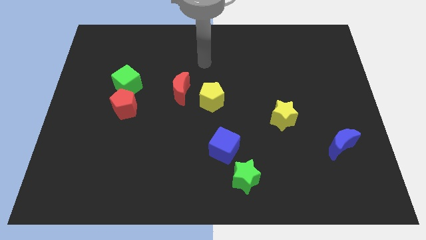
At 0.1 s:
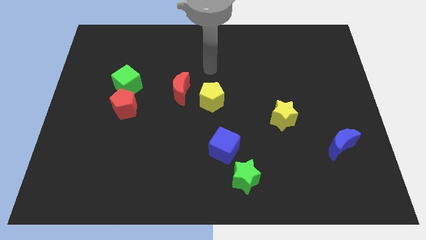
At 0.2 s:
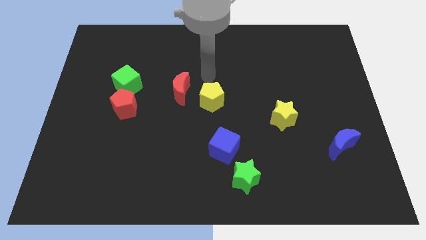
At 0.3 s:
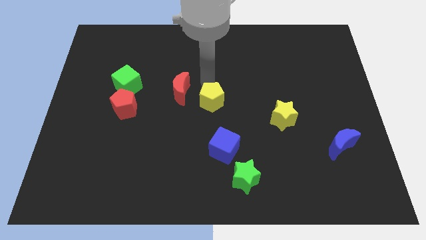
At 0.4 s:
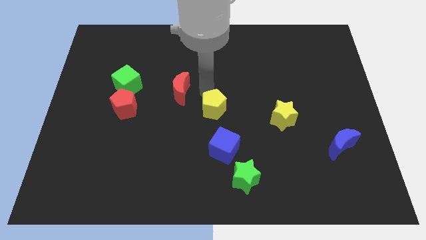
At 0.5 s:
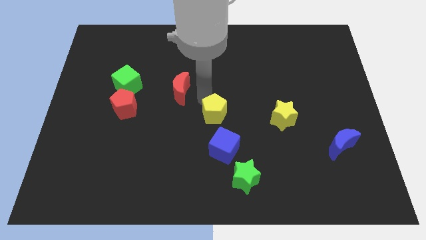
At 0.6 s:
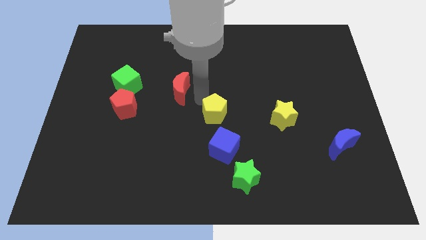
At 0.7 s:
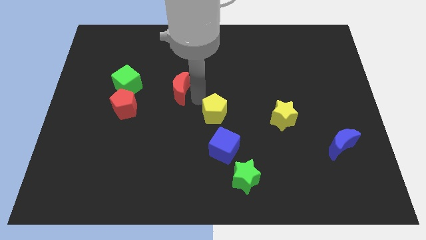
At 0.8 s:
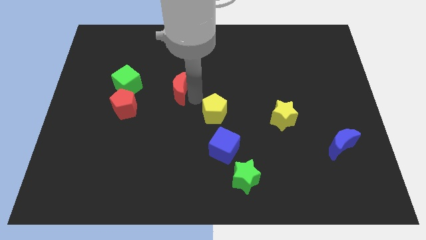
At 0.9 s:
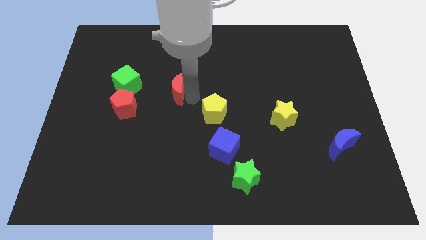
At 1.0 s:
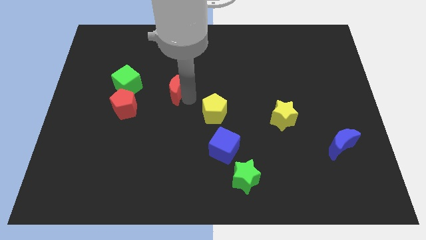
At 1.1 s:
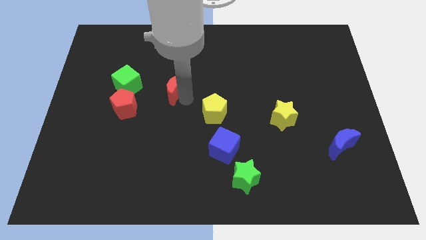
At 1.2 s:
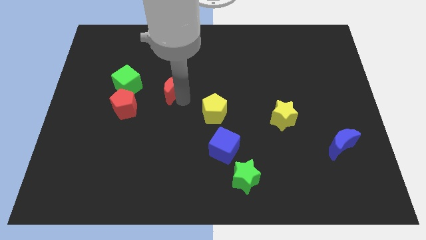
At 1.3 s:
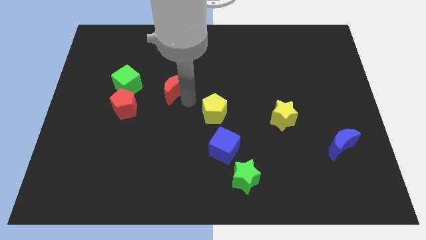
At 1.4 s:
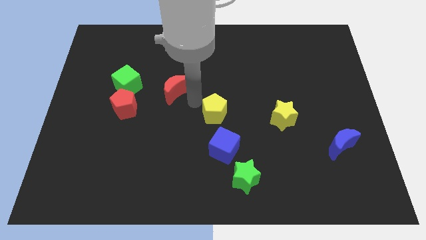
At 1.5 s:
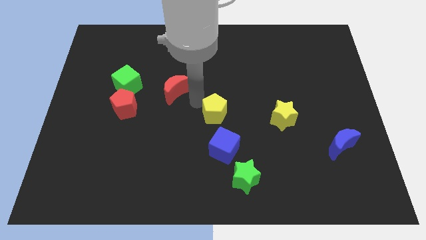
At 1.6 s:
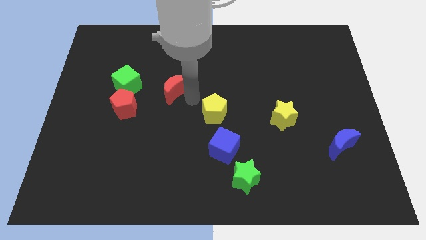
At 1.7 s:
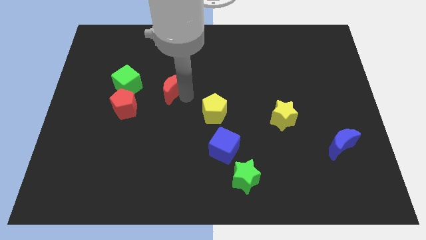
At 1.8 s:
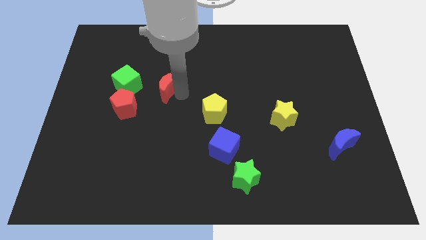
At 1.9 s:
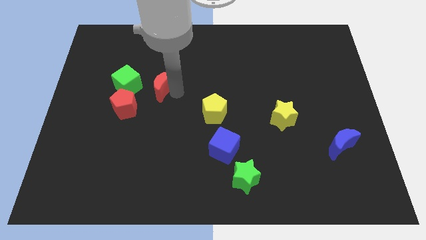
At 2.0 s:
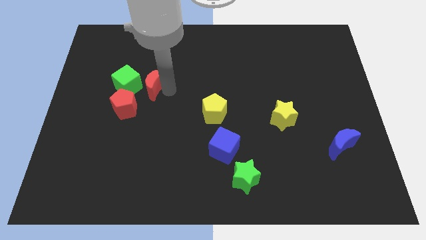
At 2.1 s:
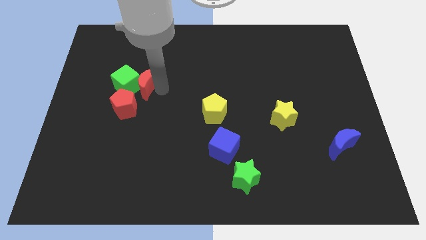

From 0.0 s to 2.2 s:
slightly push the red moon to the left

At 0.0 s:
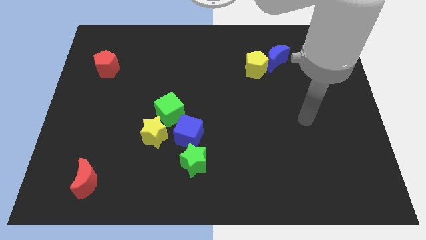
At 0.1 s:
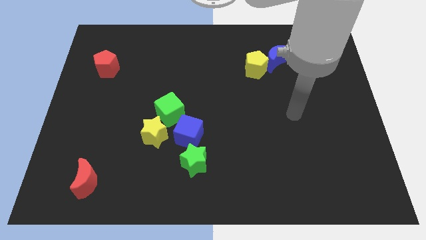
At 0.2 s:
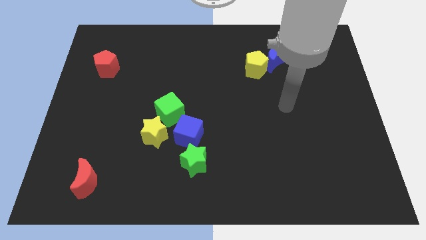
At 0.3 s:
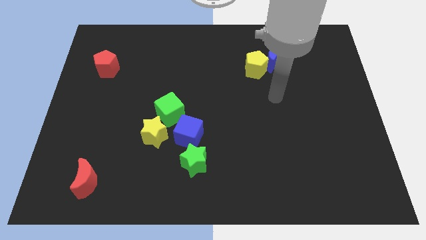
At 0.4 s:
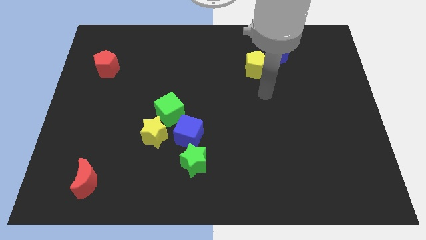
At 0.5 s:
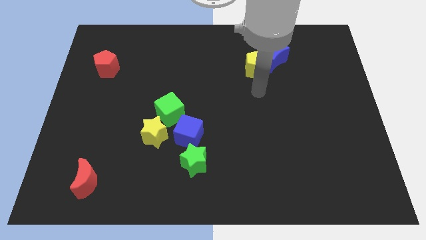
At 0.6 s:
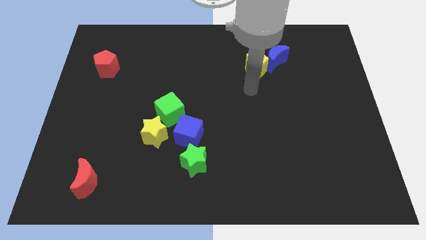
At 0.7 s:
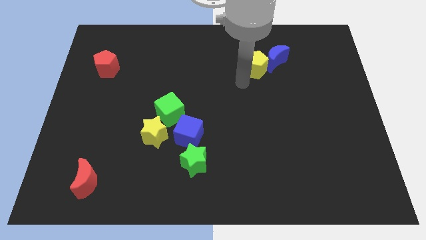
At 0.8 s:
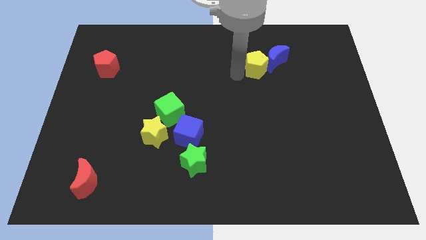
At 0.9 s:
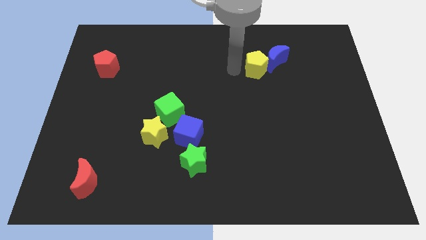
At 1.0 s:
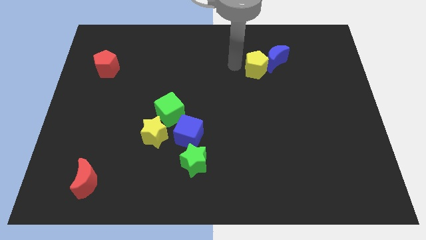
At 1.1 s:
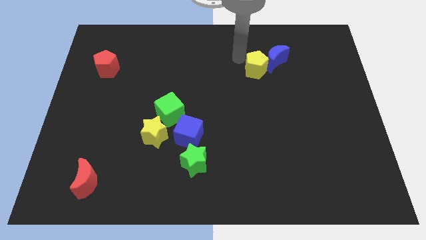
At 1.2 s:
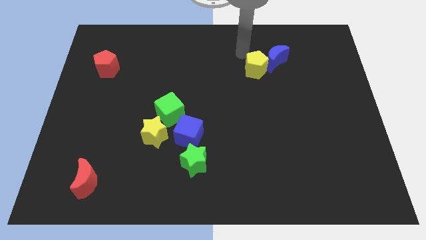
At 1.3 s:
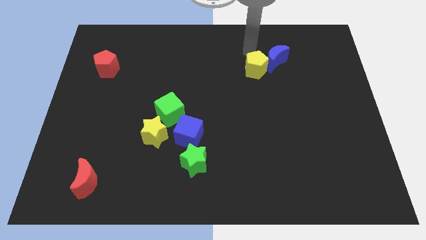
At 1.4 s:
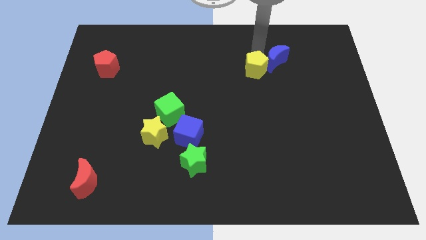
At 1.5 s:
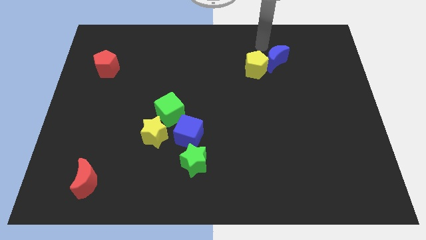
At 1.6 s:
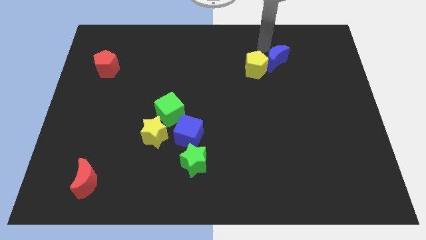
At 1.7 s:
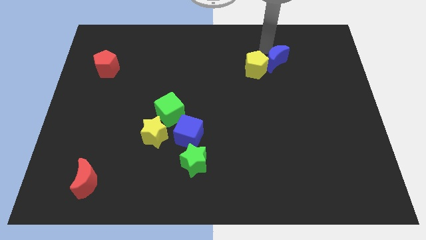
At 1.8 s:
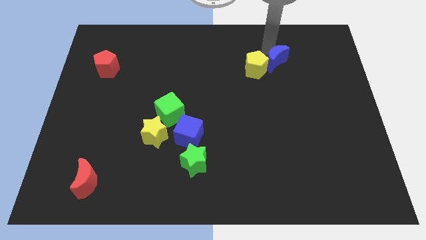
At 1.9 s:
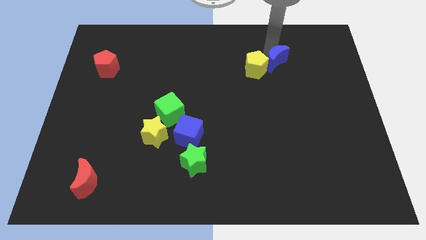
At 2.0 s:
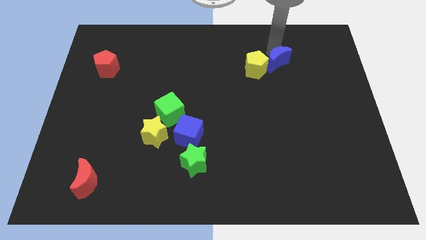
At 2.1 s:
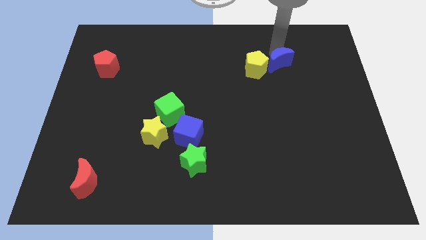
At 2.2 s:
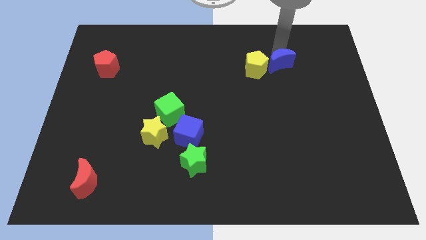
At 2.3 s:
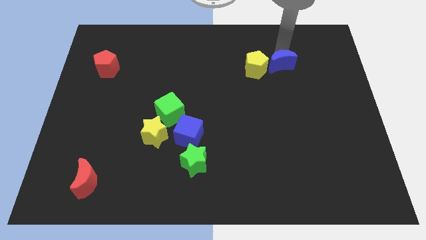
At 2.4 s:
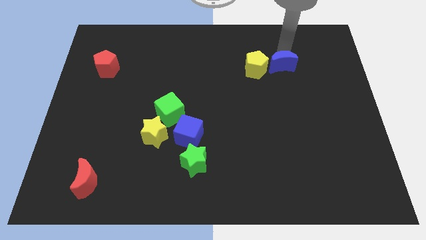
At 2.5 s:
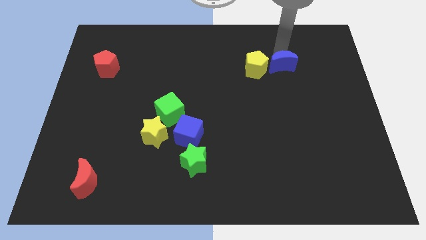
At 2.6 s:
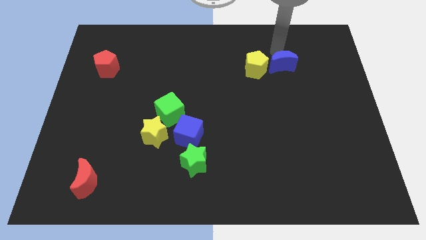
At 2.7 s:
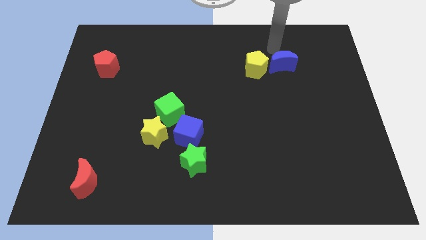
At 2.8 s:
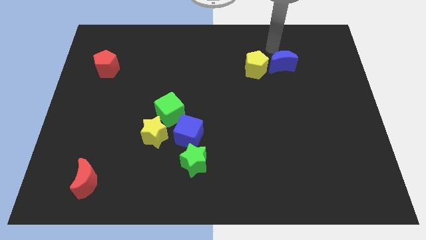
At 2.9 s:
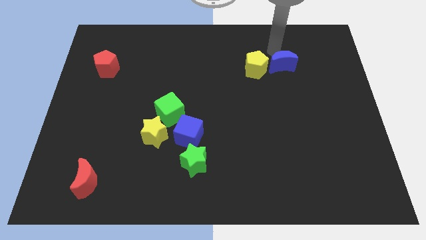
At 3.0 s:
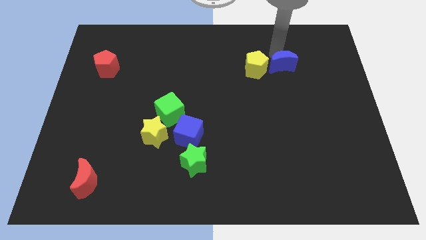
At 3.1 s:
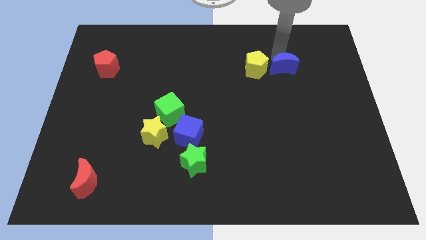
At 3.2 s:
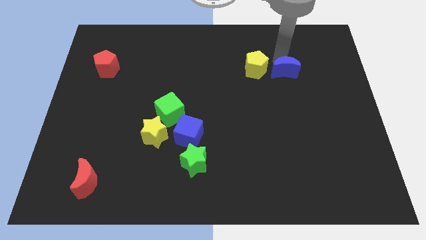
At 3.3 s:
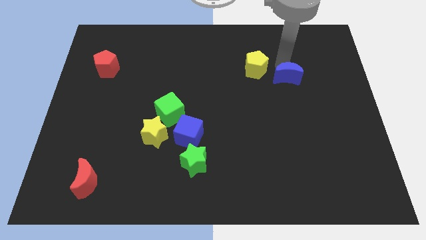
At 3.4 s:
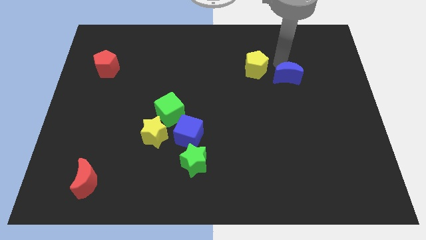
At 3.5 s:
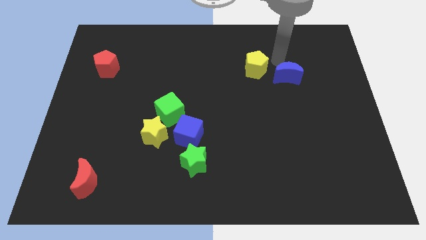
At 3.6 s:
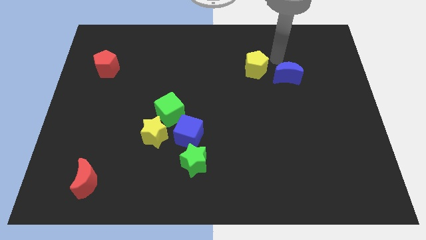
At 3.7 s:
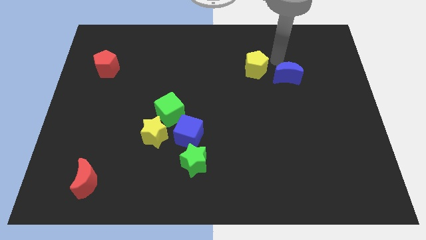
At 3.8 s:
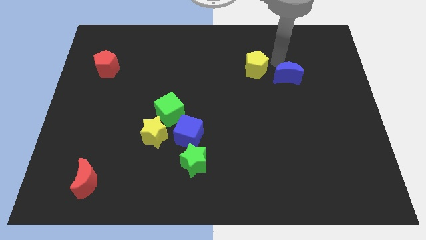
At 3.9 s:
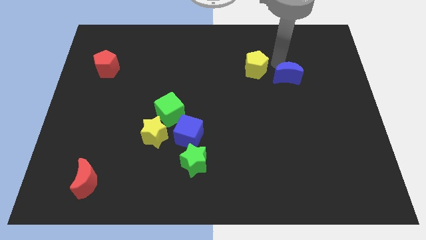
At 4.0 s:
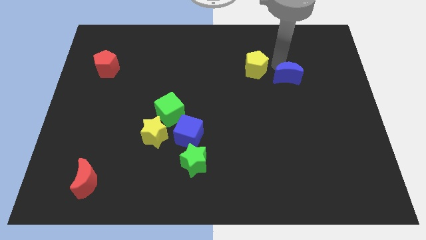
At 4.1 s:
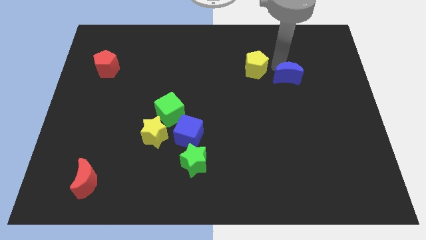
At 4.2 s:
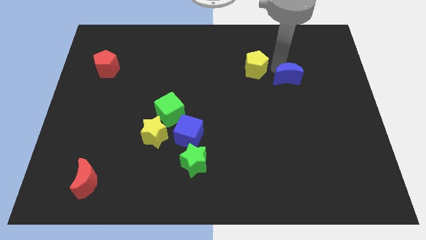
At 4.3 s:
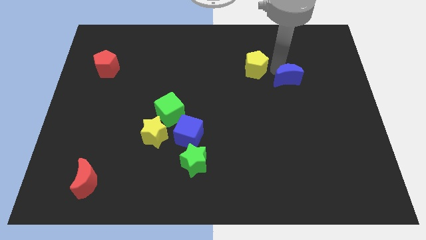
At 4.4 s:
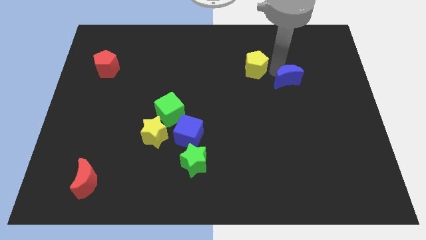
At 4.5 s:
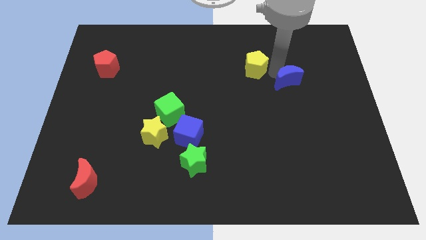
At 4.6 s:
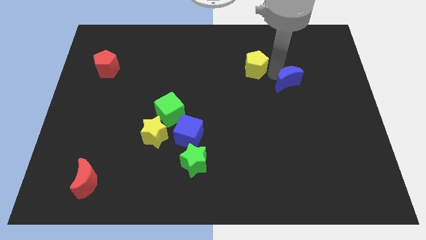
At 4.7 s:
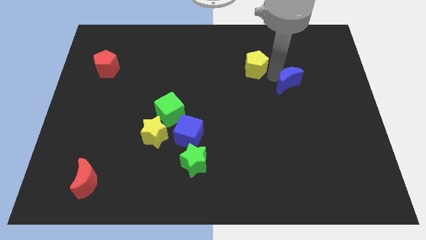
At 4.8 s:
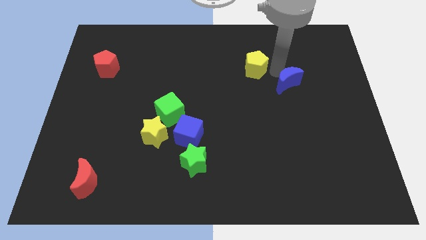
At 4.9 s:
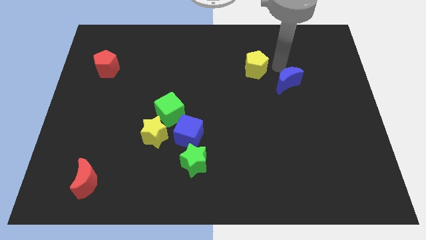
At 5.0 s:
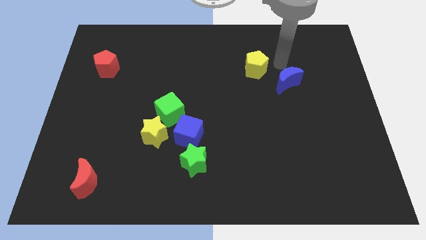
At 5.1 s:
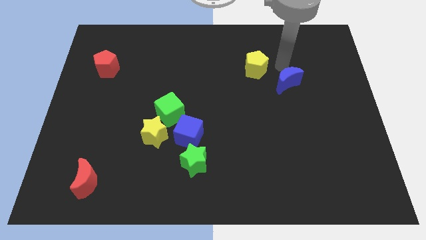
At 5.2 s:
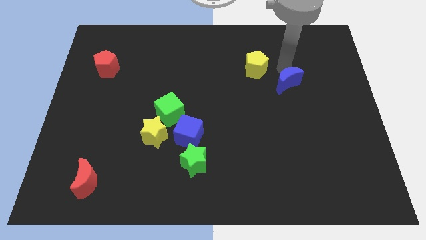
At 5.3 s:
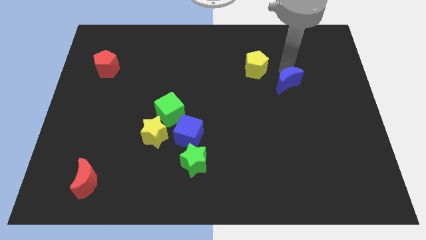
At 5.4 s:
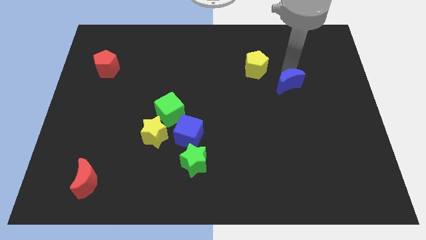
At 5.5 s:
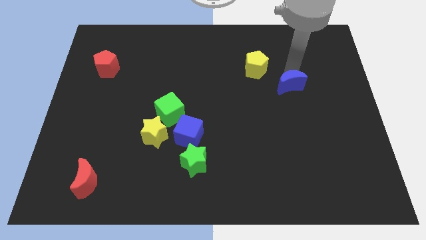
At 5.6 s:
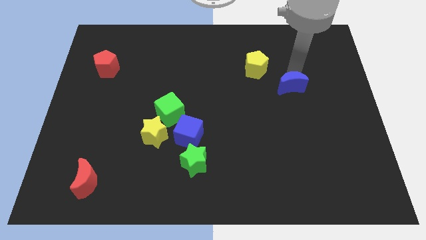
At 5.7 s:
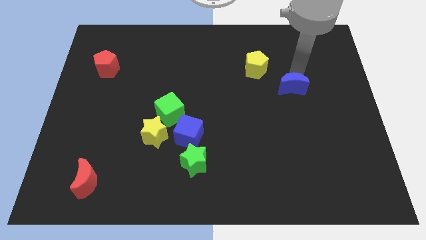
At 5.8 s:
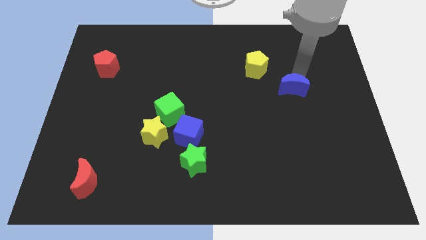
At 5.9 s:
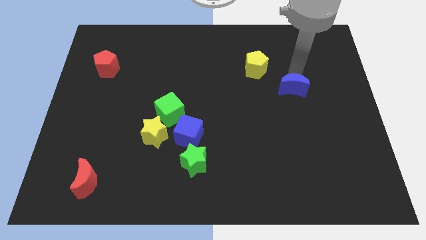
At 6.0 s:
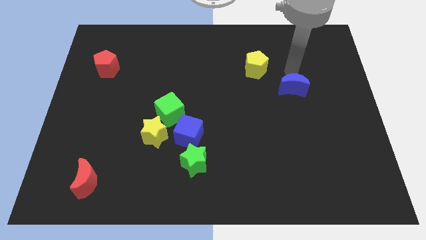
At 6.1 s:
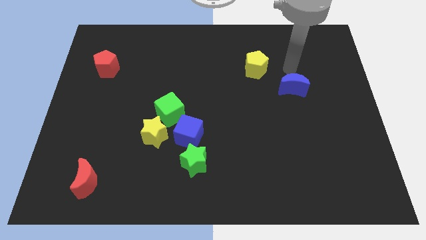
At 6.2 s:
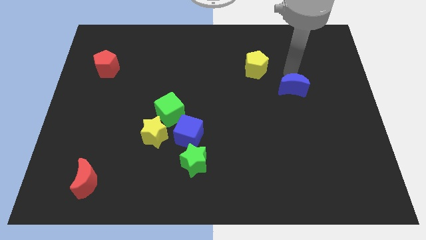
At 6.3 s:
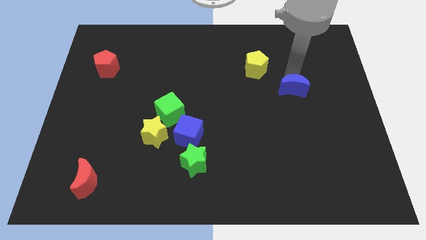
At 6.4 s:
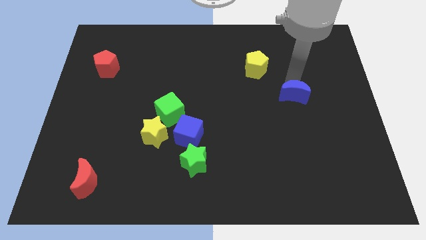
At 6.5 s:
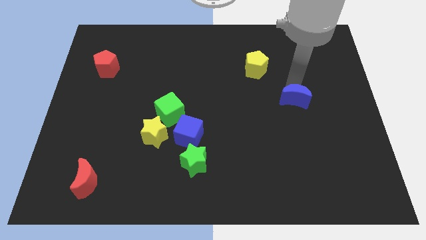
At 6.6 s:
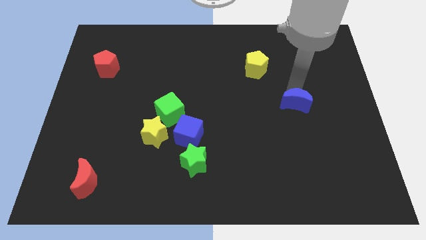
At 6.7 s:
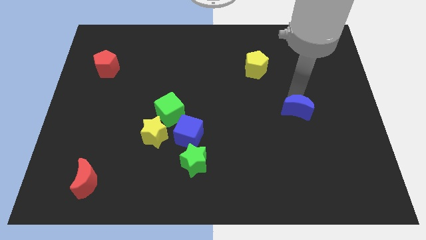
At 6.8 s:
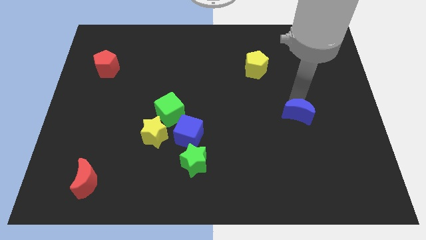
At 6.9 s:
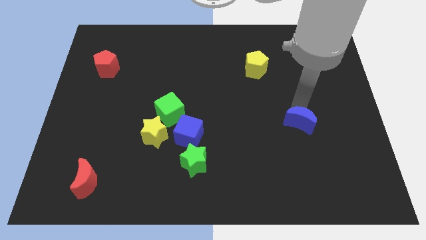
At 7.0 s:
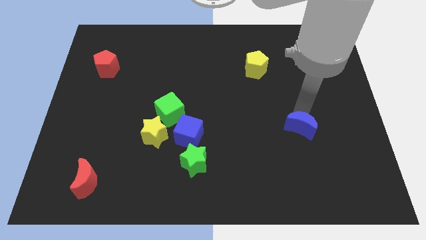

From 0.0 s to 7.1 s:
slide the blue moon down
